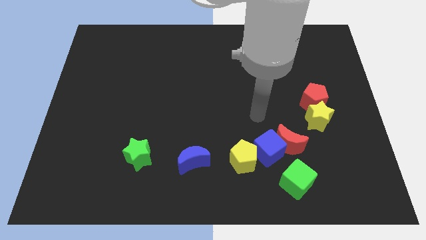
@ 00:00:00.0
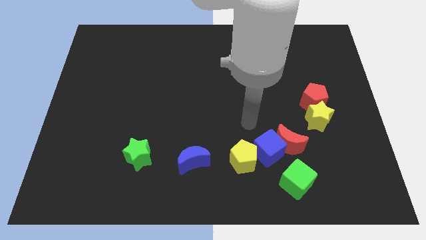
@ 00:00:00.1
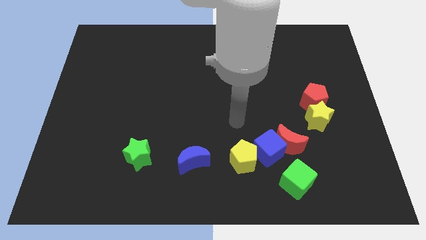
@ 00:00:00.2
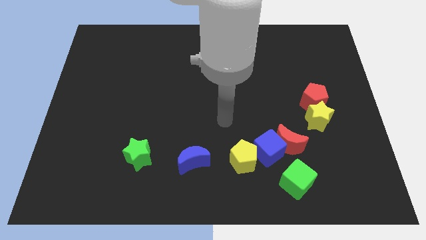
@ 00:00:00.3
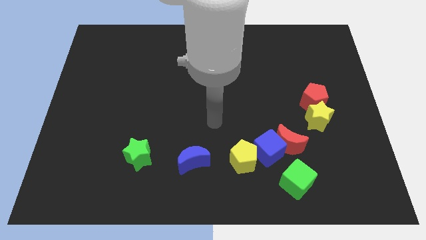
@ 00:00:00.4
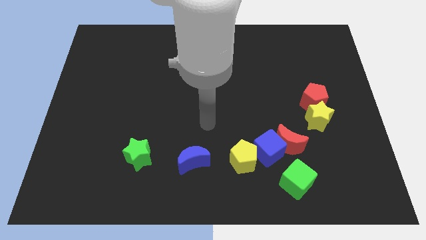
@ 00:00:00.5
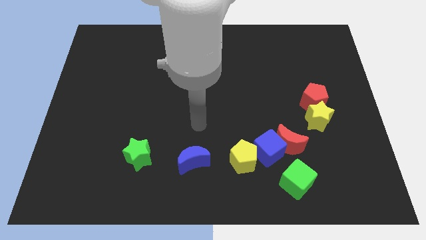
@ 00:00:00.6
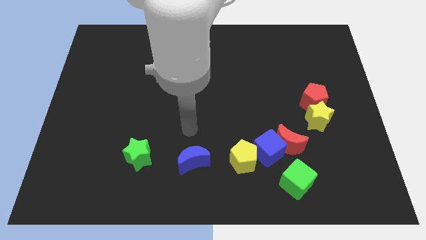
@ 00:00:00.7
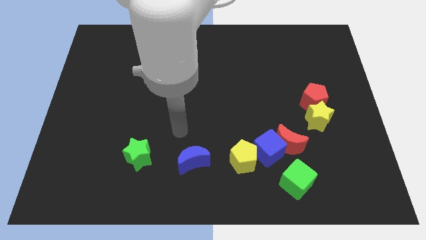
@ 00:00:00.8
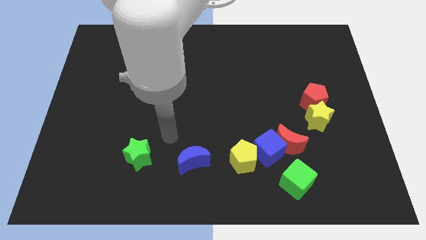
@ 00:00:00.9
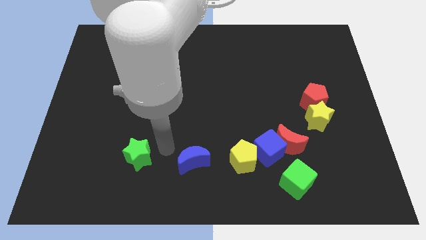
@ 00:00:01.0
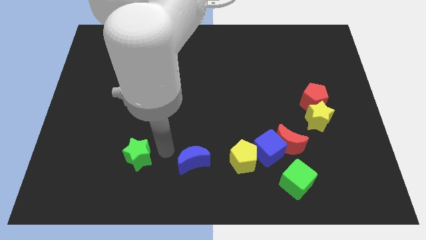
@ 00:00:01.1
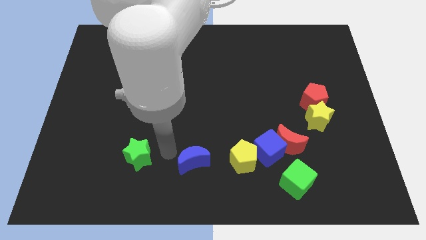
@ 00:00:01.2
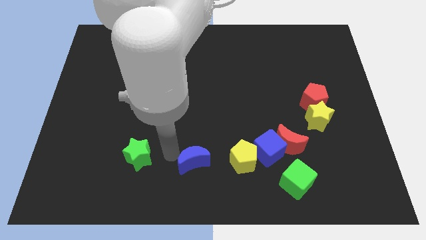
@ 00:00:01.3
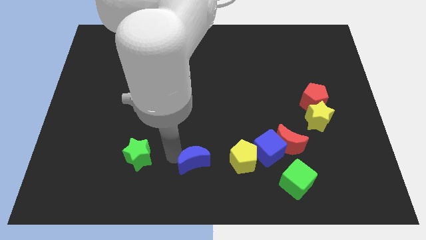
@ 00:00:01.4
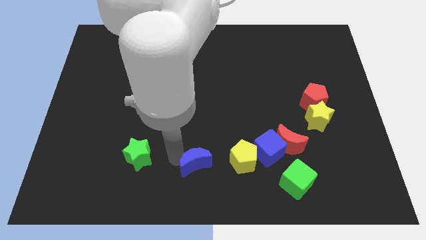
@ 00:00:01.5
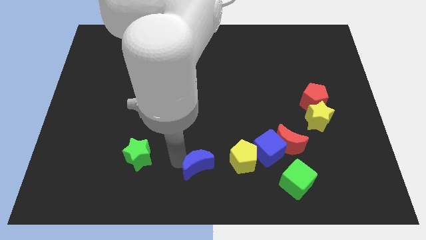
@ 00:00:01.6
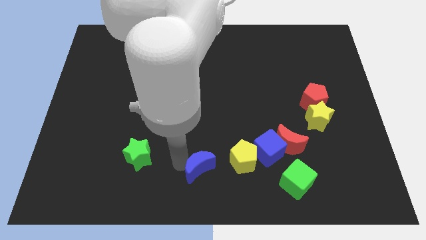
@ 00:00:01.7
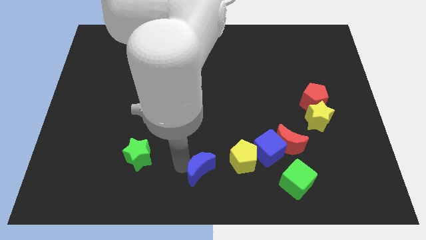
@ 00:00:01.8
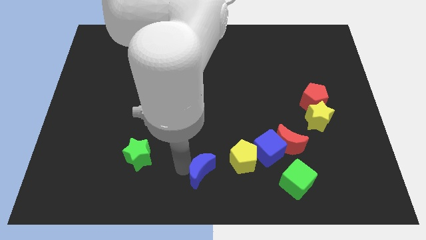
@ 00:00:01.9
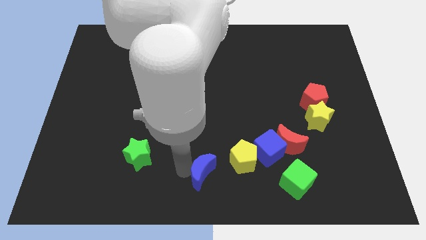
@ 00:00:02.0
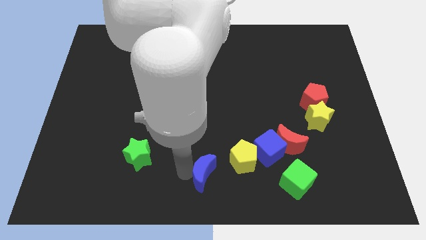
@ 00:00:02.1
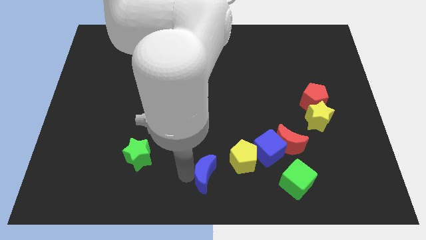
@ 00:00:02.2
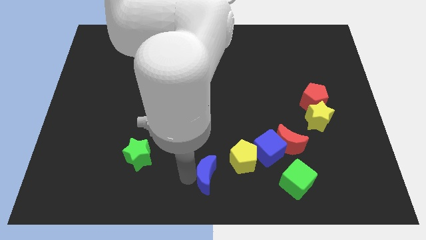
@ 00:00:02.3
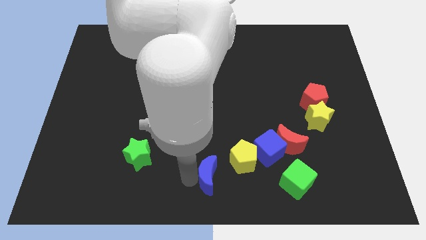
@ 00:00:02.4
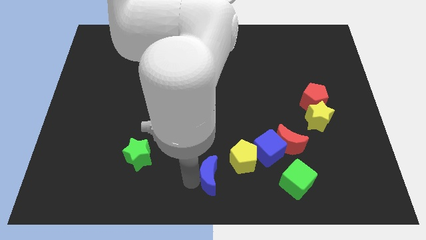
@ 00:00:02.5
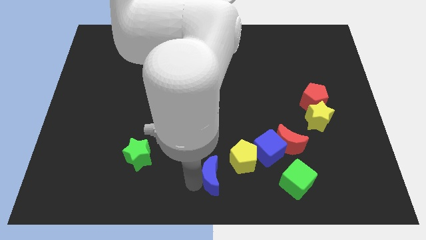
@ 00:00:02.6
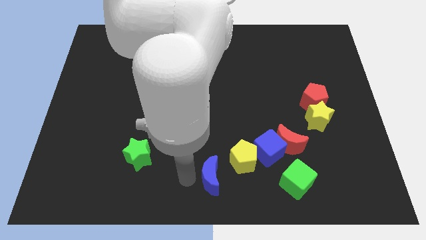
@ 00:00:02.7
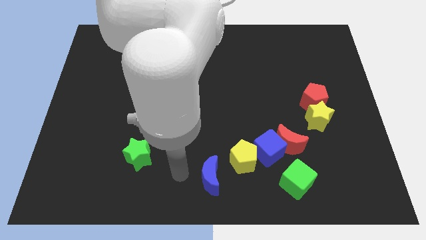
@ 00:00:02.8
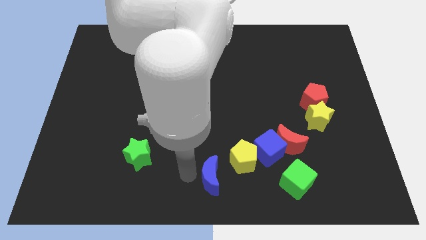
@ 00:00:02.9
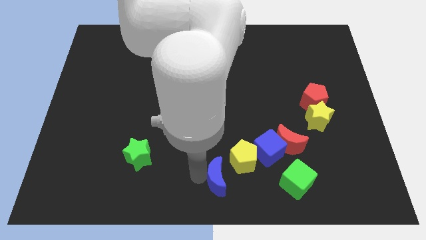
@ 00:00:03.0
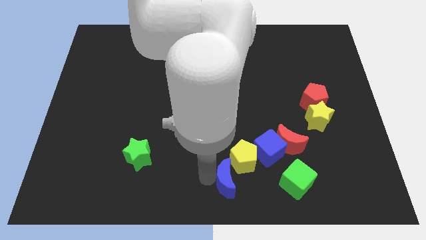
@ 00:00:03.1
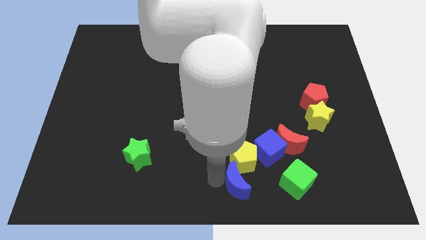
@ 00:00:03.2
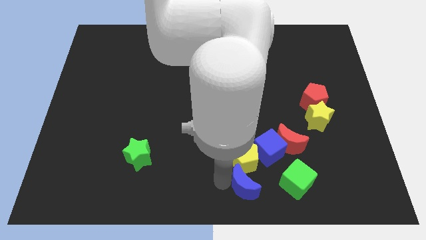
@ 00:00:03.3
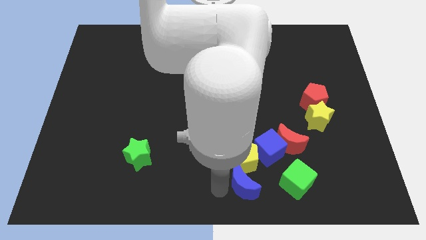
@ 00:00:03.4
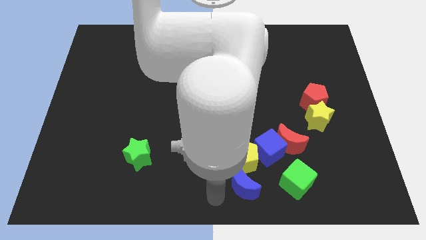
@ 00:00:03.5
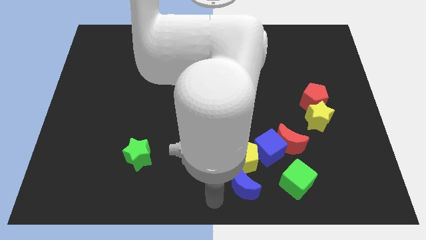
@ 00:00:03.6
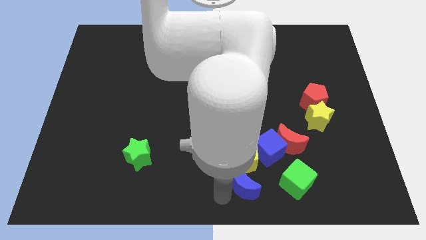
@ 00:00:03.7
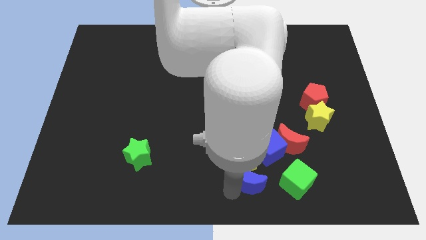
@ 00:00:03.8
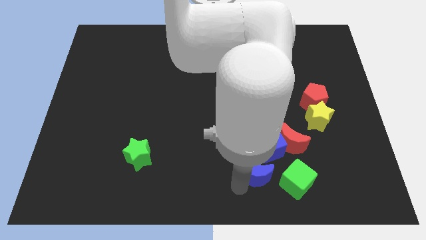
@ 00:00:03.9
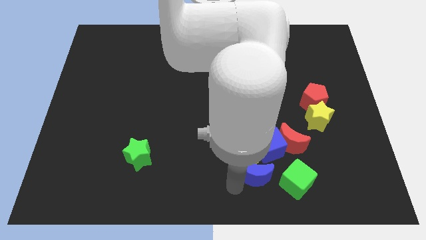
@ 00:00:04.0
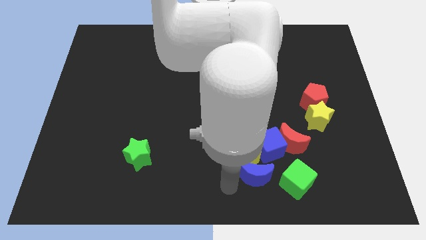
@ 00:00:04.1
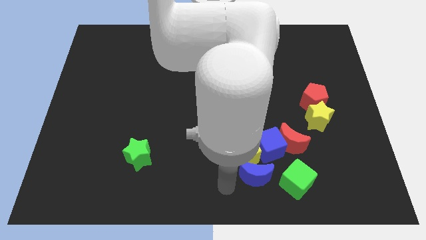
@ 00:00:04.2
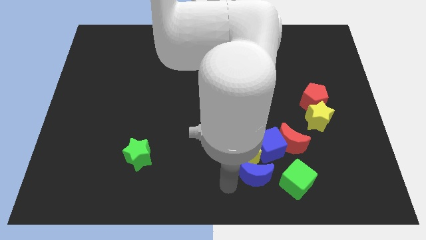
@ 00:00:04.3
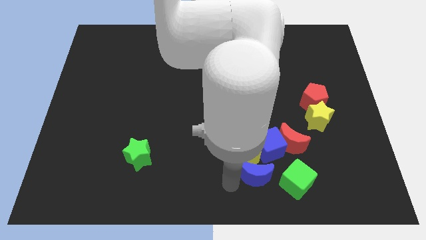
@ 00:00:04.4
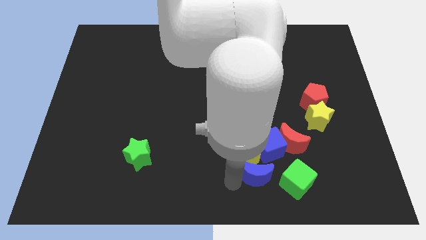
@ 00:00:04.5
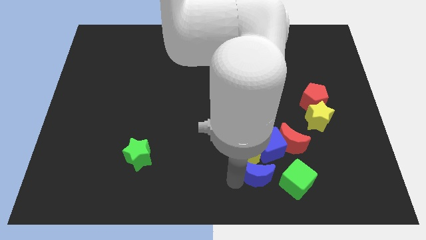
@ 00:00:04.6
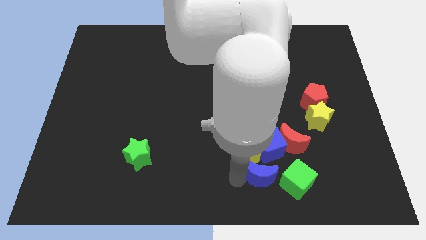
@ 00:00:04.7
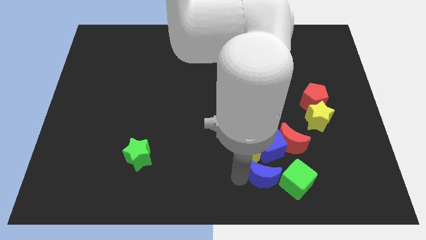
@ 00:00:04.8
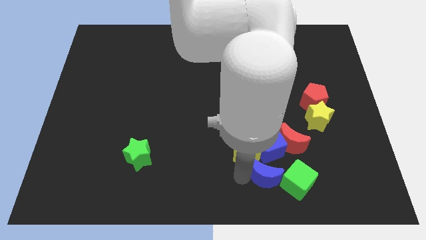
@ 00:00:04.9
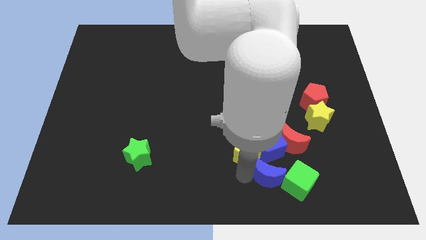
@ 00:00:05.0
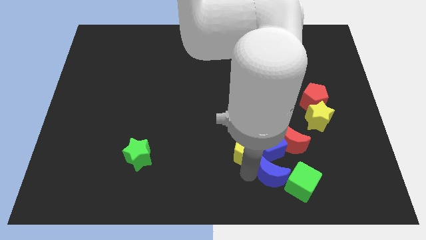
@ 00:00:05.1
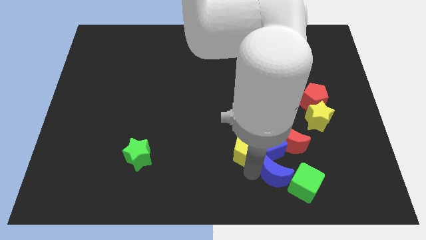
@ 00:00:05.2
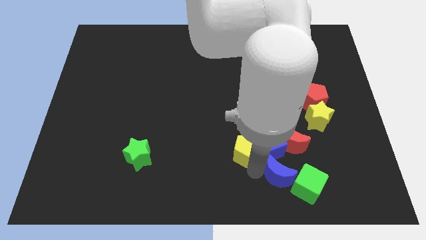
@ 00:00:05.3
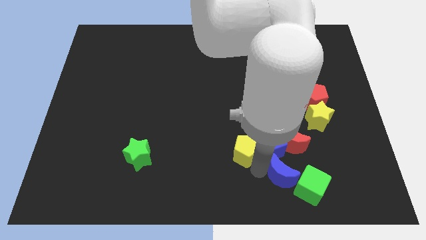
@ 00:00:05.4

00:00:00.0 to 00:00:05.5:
move the blue moon to the right side of the yellow pentagon

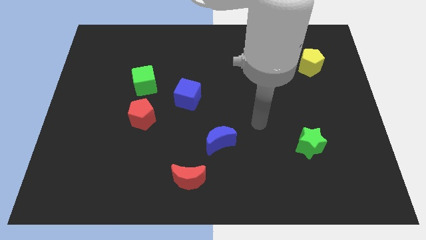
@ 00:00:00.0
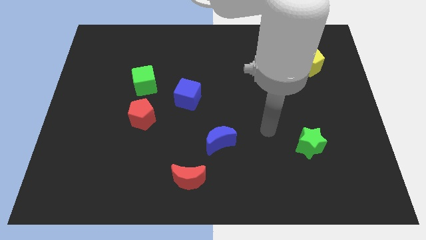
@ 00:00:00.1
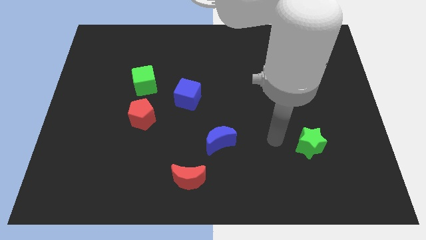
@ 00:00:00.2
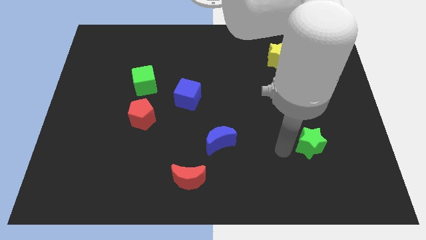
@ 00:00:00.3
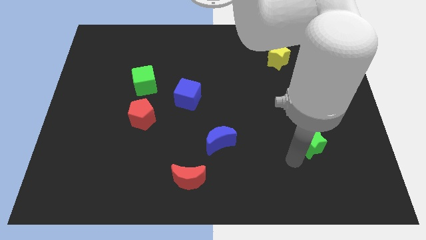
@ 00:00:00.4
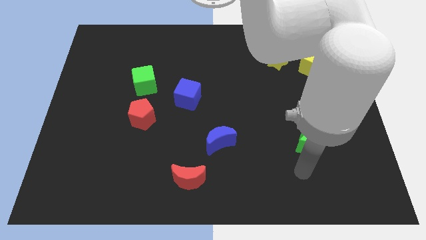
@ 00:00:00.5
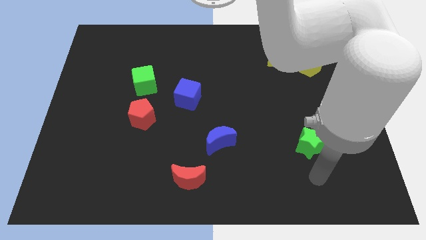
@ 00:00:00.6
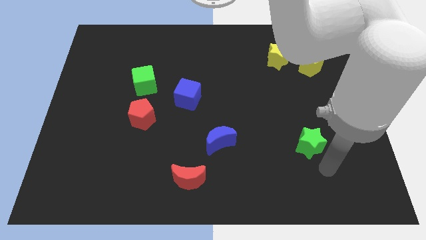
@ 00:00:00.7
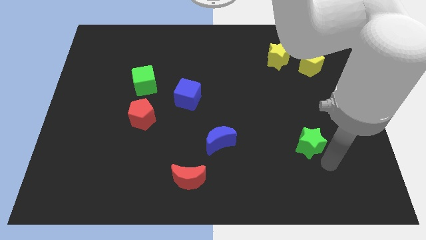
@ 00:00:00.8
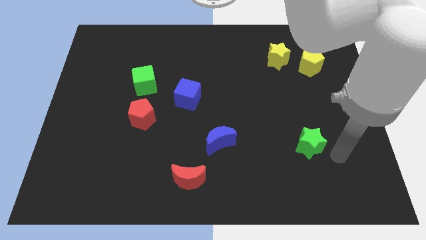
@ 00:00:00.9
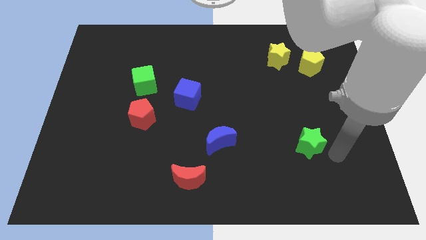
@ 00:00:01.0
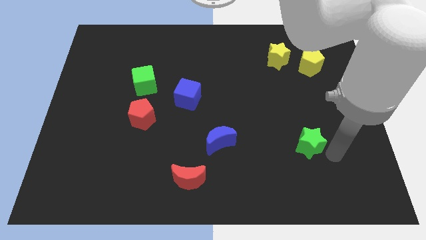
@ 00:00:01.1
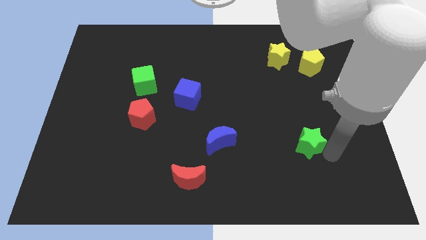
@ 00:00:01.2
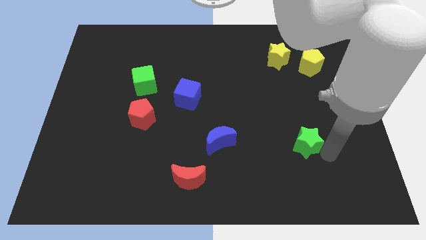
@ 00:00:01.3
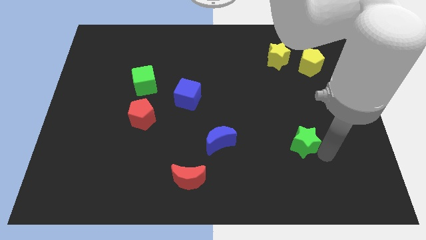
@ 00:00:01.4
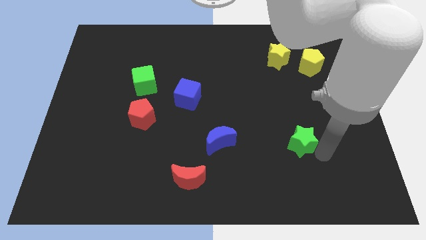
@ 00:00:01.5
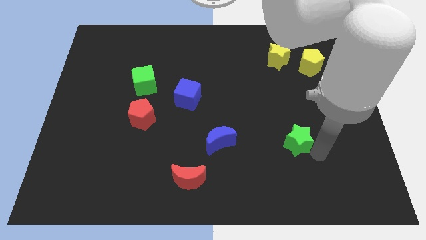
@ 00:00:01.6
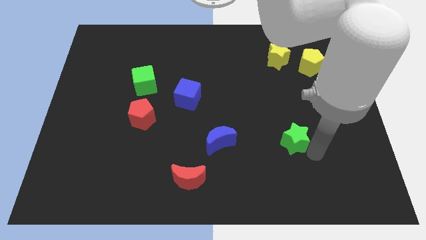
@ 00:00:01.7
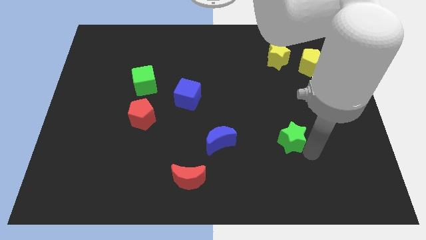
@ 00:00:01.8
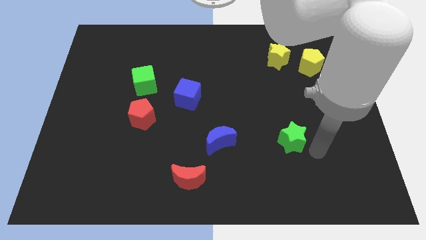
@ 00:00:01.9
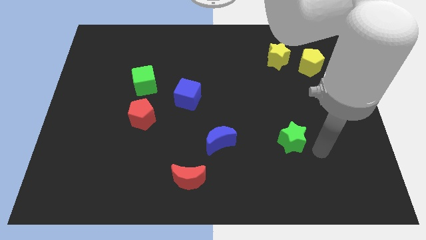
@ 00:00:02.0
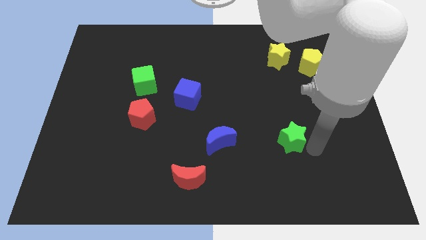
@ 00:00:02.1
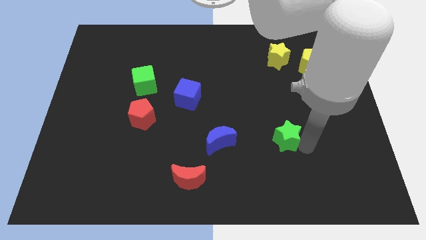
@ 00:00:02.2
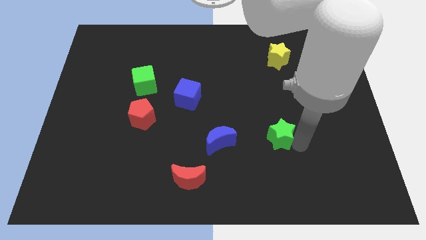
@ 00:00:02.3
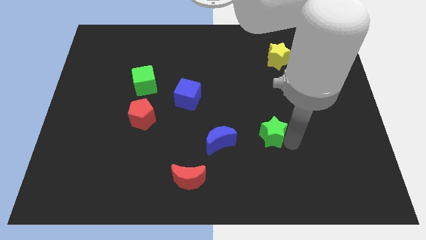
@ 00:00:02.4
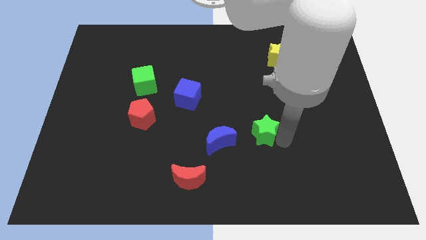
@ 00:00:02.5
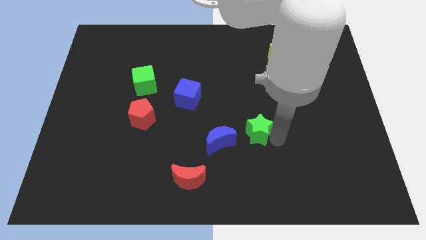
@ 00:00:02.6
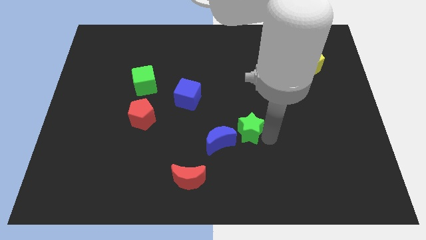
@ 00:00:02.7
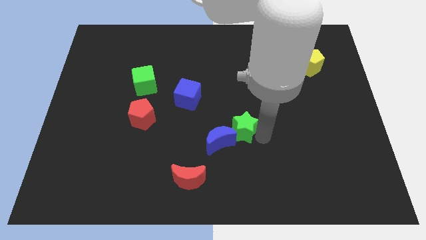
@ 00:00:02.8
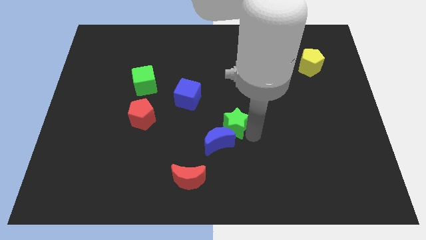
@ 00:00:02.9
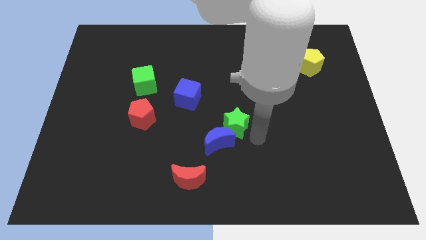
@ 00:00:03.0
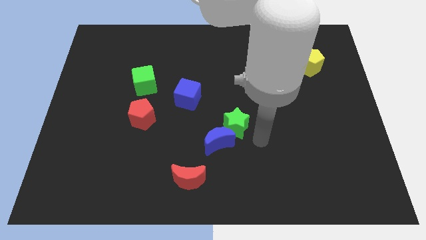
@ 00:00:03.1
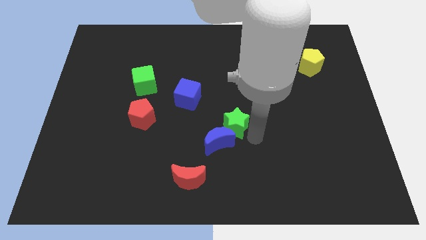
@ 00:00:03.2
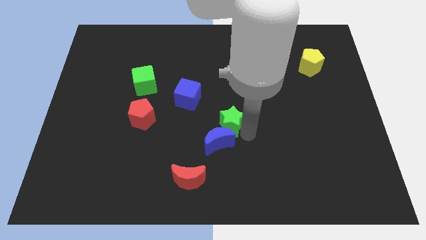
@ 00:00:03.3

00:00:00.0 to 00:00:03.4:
slide the green star to the bottom right side of the blue cube
